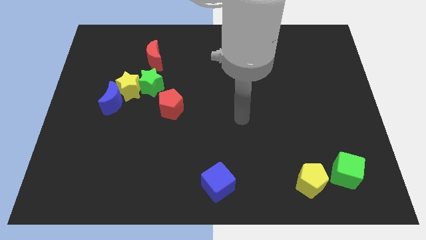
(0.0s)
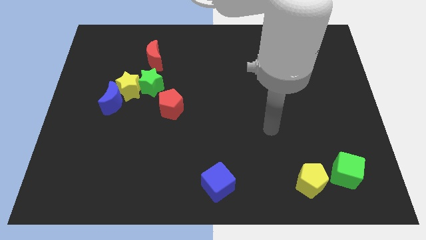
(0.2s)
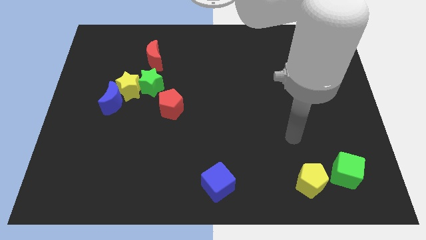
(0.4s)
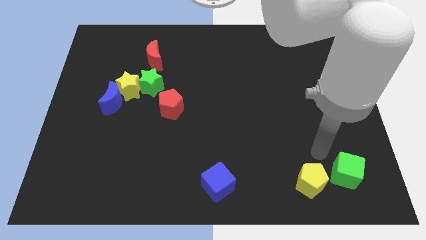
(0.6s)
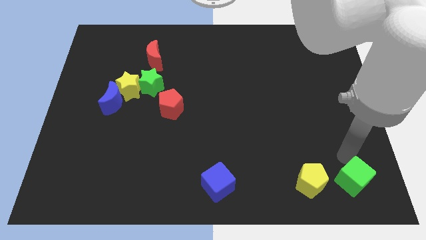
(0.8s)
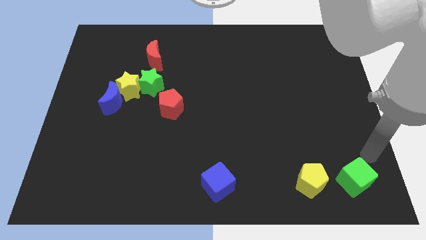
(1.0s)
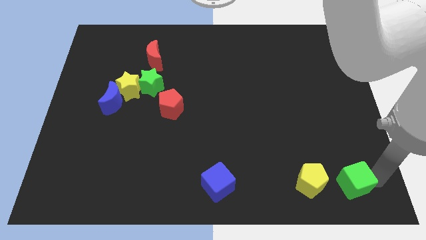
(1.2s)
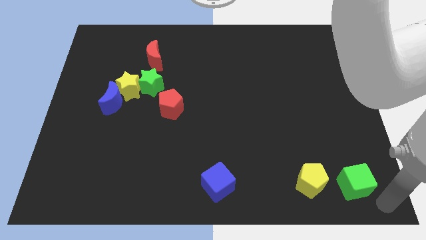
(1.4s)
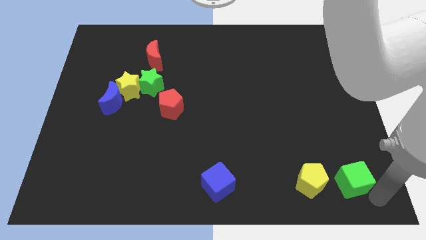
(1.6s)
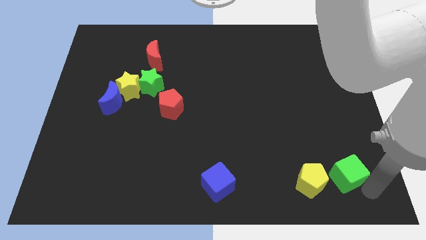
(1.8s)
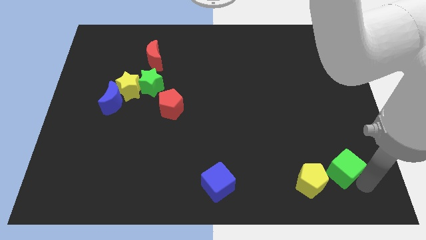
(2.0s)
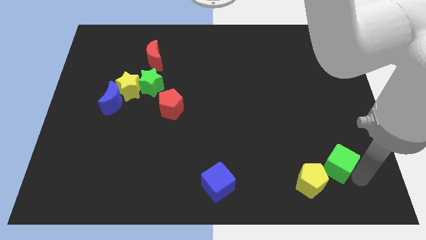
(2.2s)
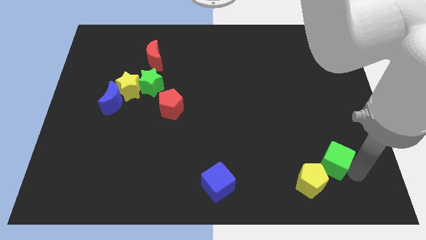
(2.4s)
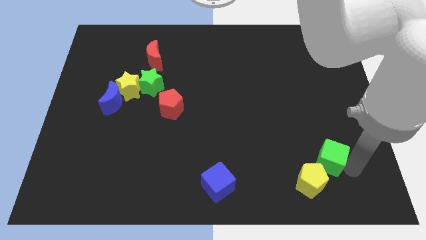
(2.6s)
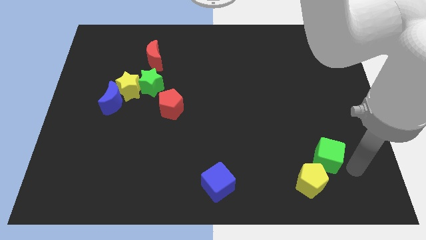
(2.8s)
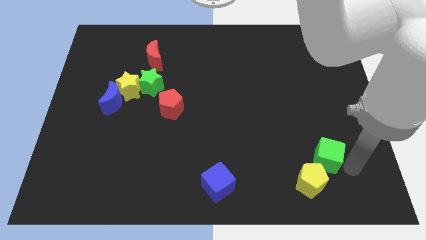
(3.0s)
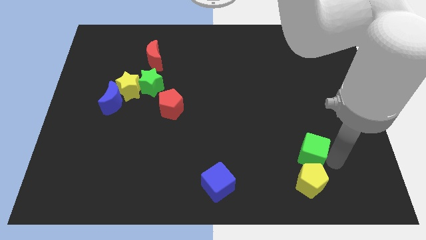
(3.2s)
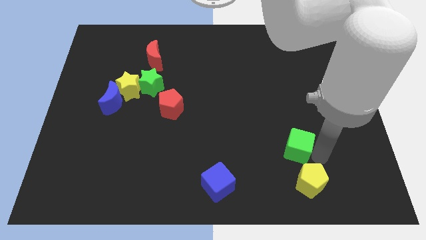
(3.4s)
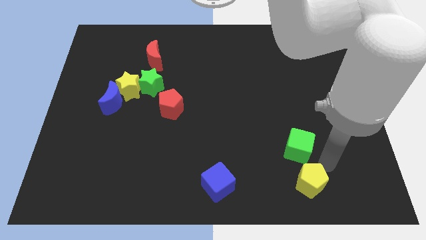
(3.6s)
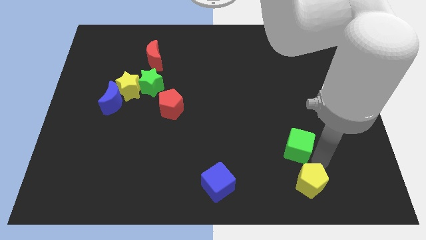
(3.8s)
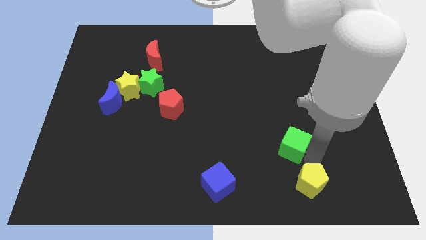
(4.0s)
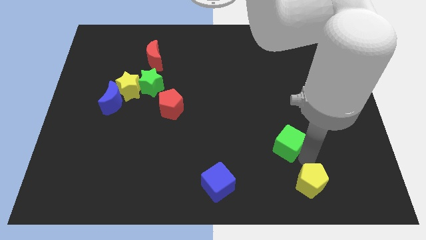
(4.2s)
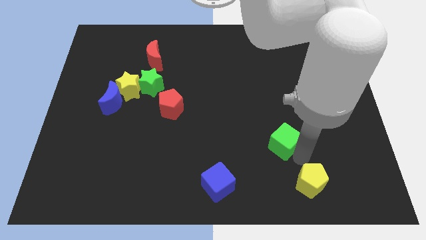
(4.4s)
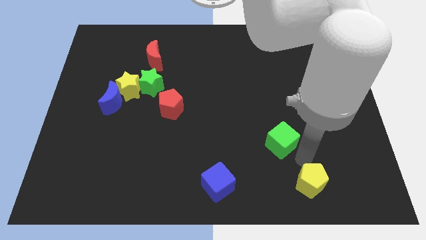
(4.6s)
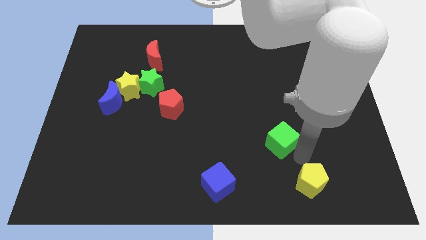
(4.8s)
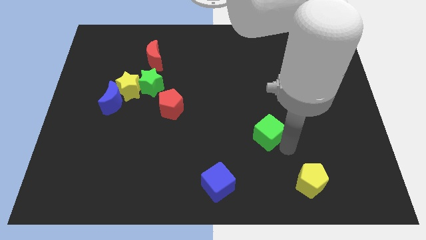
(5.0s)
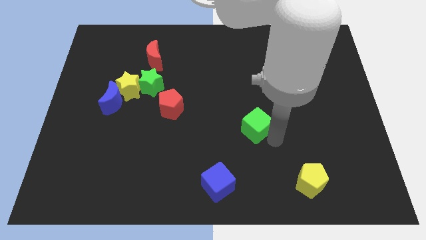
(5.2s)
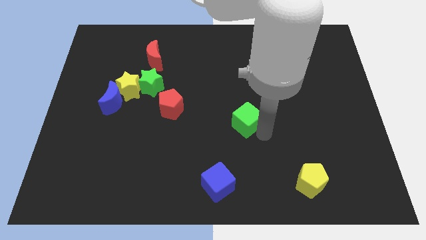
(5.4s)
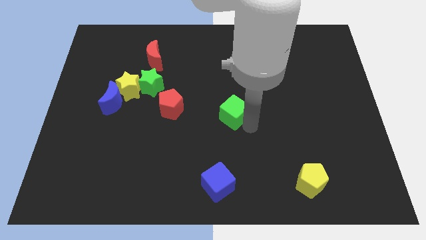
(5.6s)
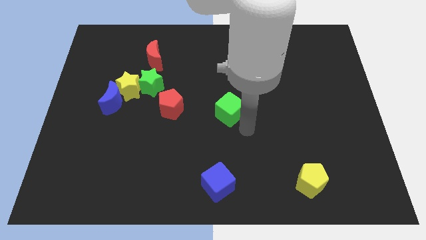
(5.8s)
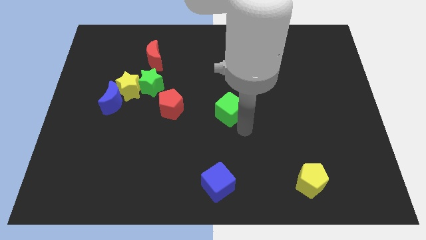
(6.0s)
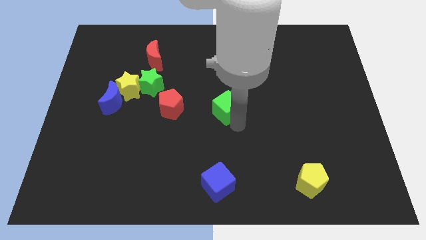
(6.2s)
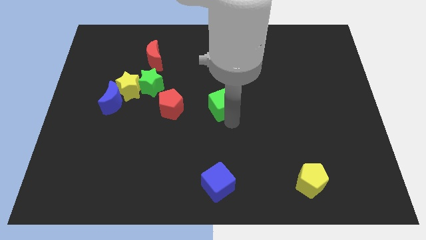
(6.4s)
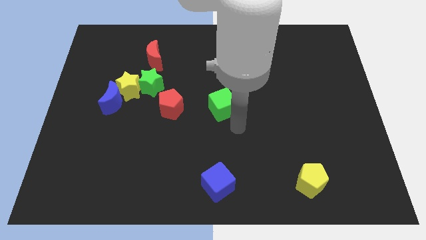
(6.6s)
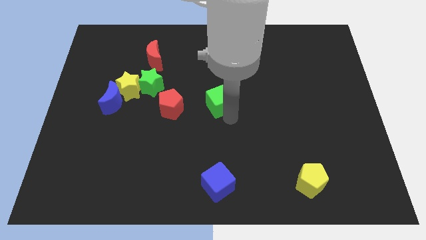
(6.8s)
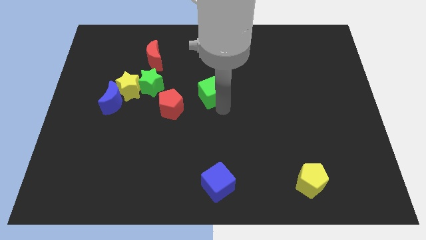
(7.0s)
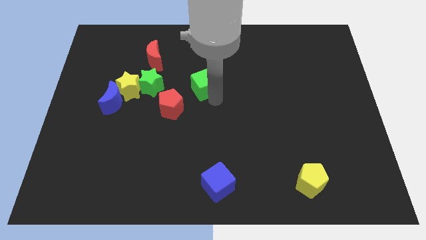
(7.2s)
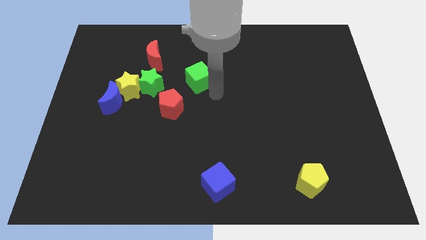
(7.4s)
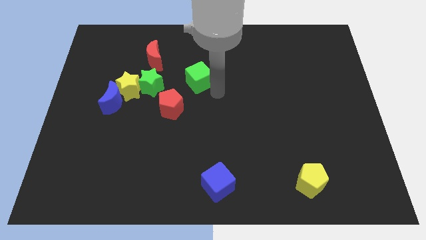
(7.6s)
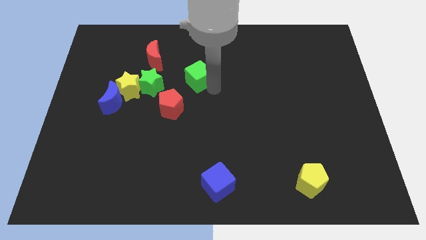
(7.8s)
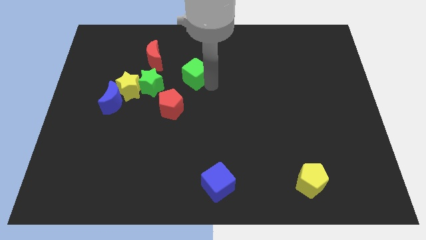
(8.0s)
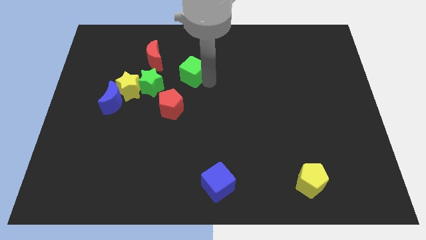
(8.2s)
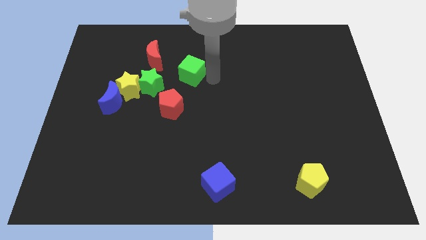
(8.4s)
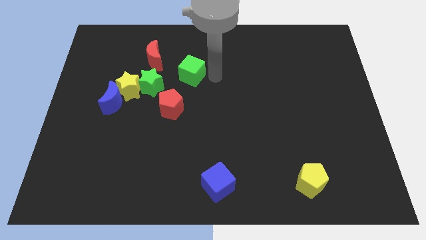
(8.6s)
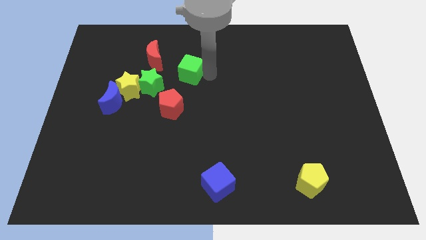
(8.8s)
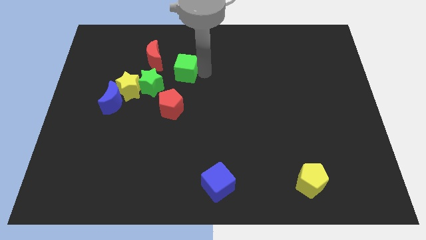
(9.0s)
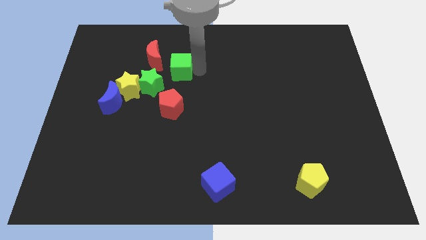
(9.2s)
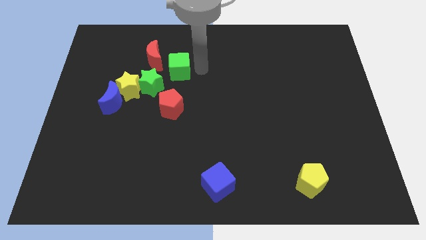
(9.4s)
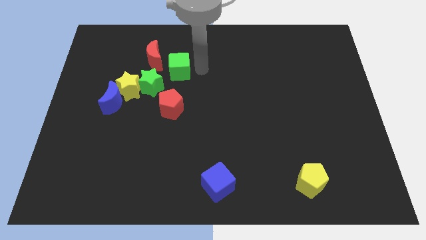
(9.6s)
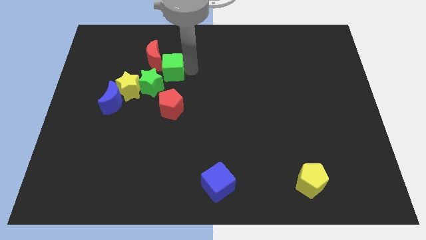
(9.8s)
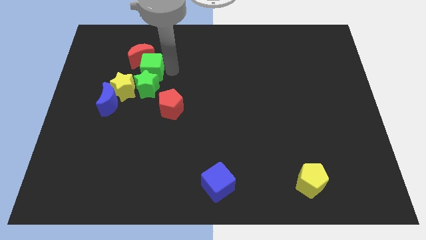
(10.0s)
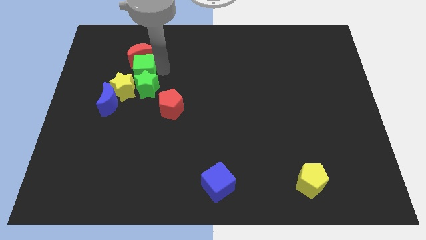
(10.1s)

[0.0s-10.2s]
move the green cube to the bottom left side of the red moon

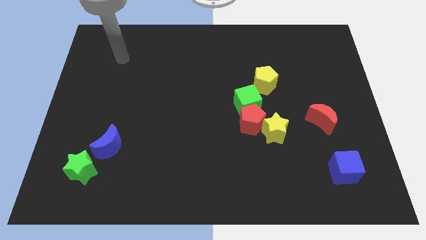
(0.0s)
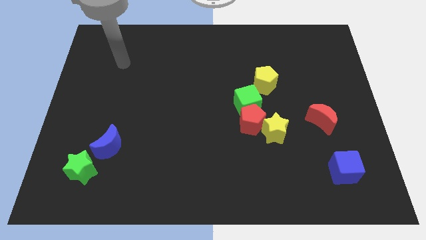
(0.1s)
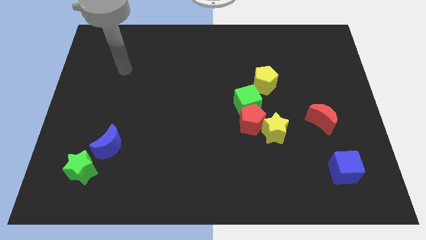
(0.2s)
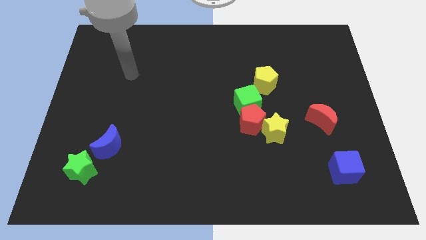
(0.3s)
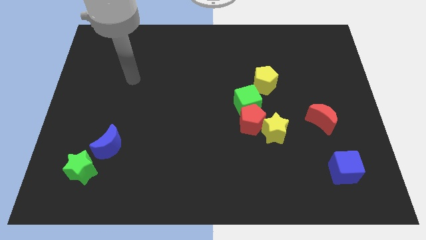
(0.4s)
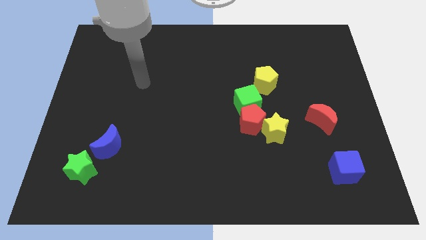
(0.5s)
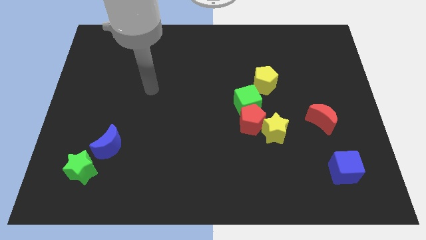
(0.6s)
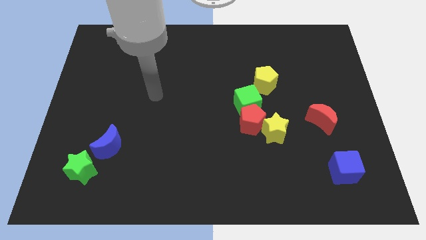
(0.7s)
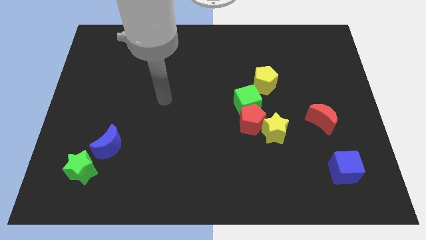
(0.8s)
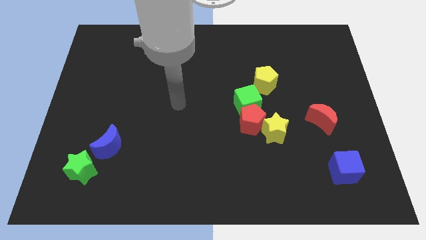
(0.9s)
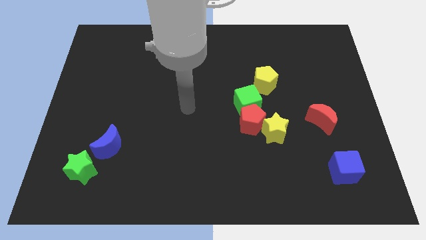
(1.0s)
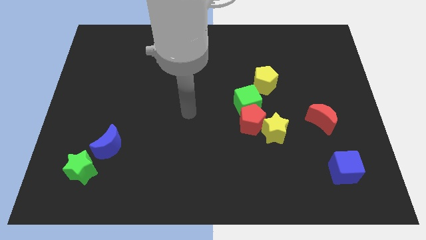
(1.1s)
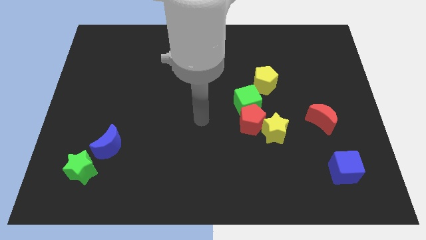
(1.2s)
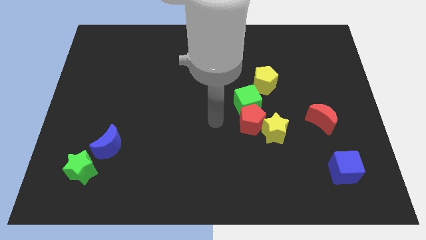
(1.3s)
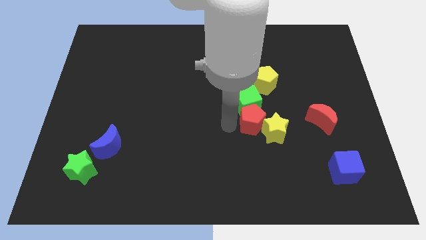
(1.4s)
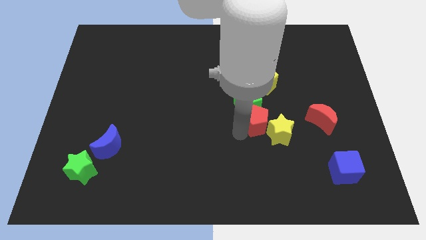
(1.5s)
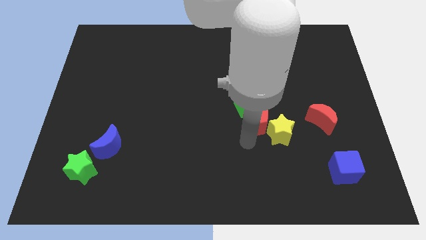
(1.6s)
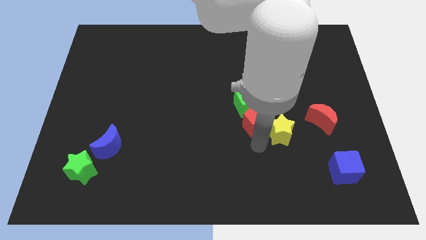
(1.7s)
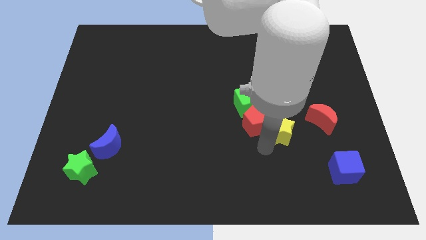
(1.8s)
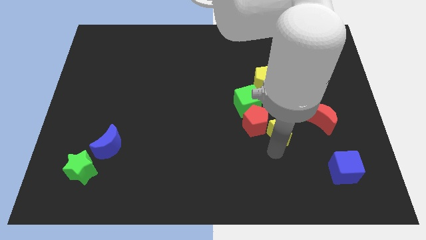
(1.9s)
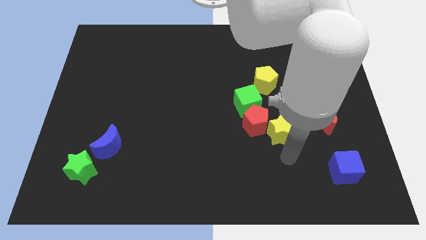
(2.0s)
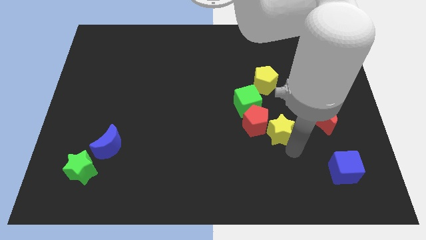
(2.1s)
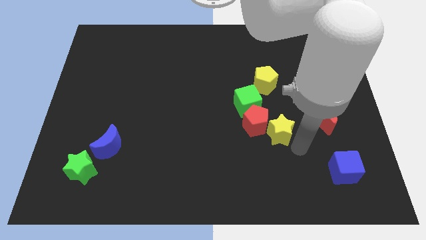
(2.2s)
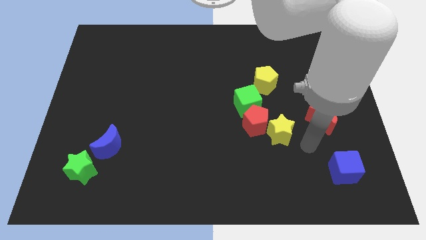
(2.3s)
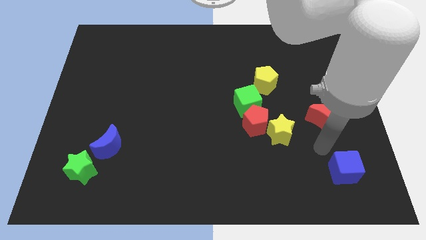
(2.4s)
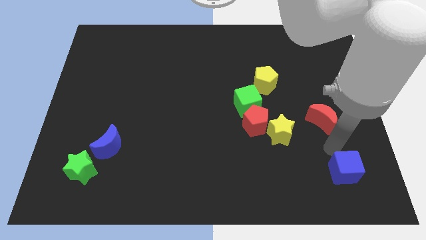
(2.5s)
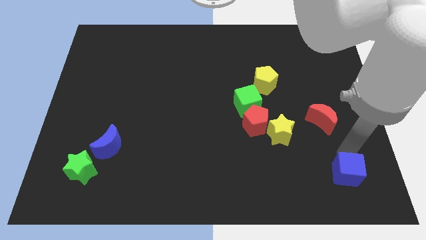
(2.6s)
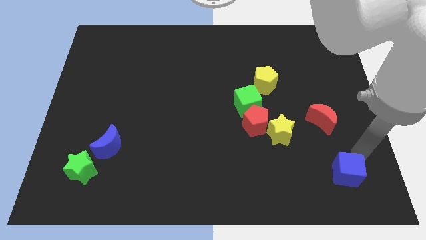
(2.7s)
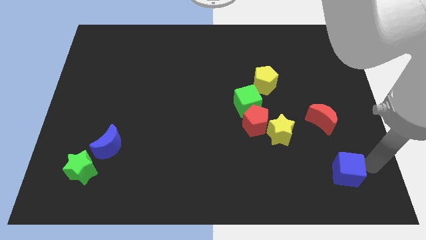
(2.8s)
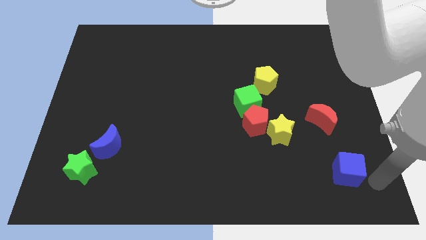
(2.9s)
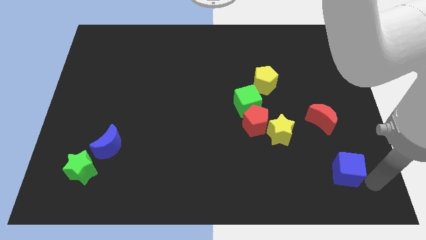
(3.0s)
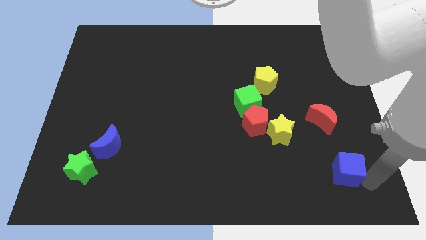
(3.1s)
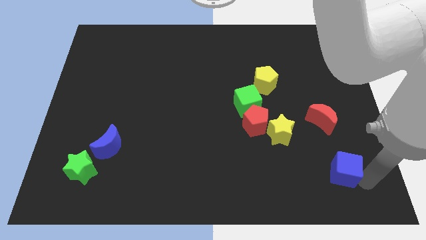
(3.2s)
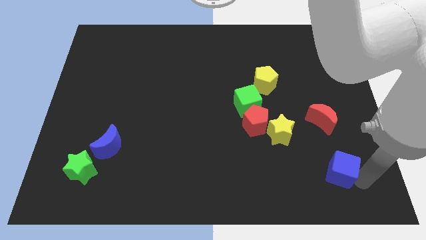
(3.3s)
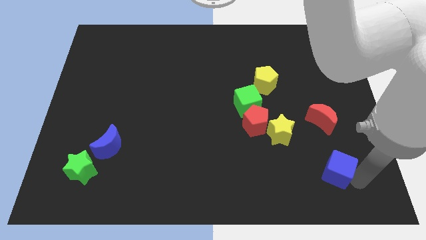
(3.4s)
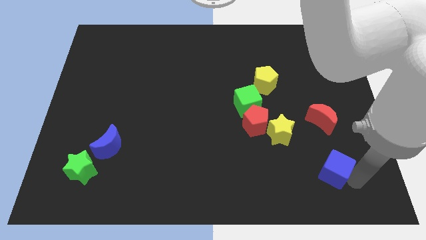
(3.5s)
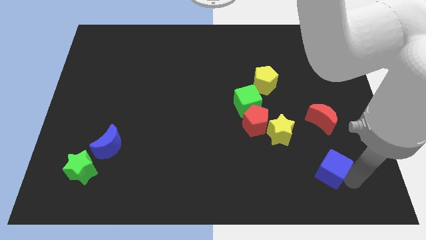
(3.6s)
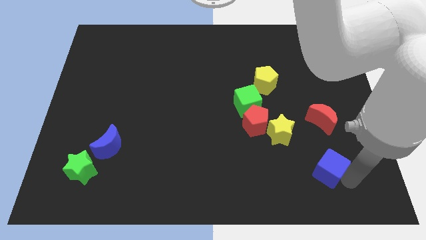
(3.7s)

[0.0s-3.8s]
move the blue cube diagonally down and to the right of the yellow star
